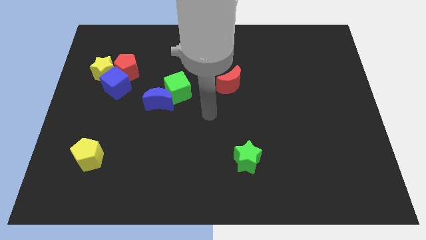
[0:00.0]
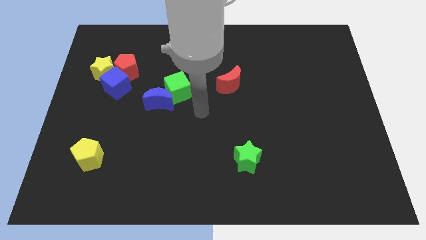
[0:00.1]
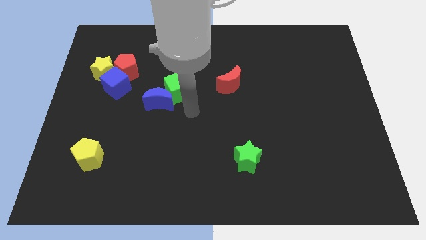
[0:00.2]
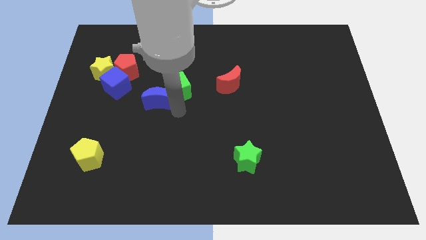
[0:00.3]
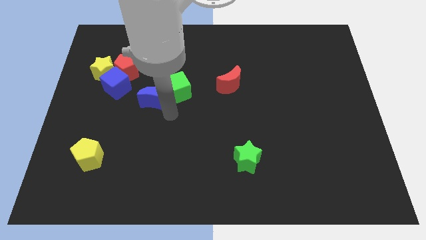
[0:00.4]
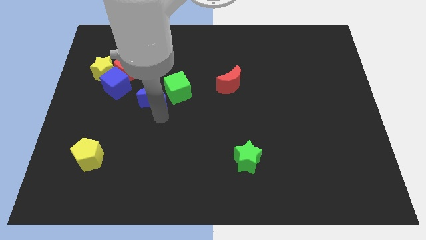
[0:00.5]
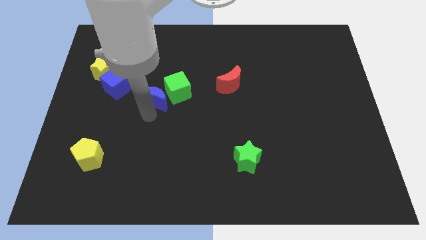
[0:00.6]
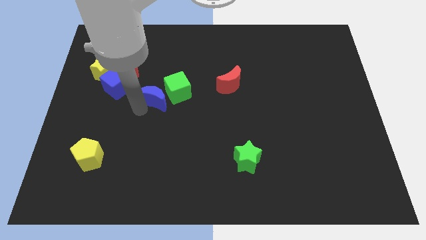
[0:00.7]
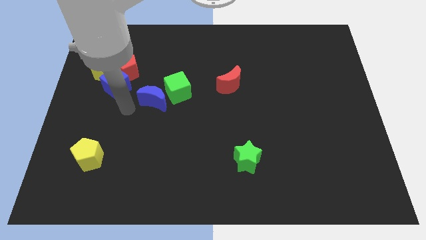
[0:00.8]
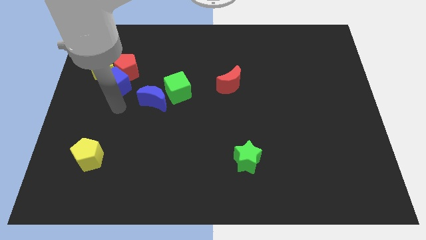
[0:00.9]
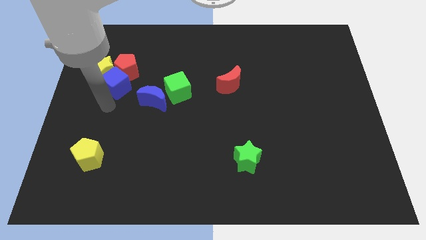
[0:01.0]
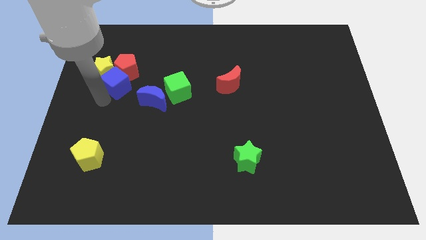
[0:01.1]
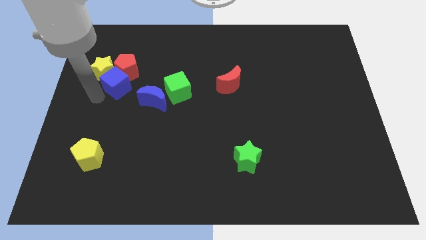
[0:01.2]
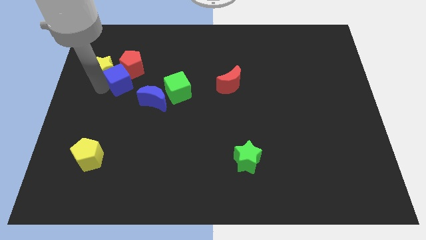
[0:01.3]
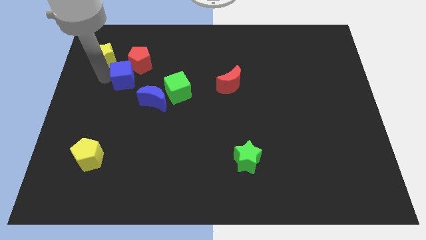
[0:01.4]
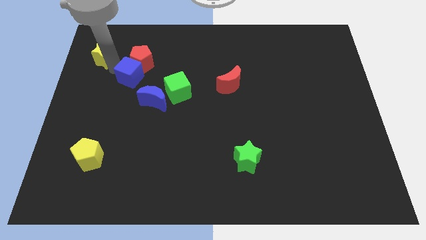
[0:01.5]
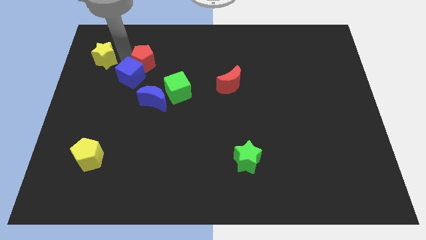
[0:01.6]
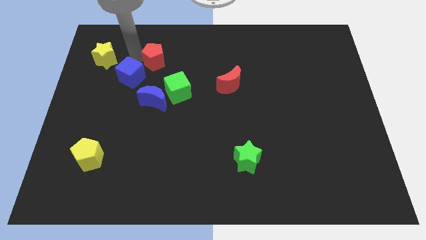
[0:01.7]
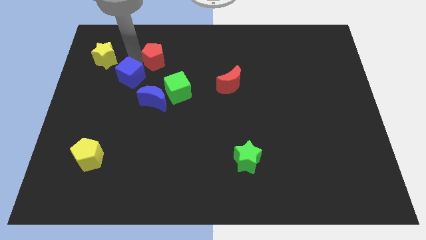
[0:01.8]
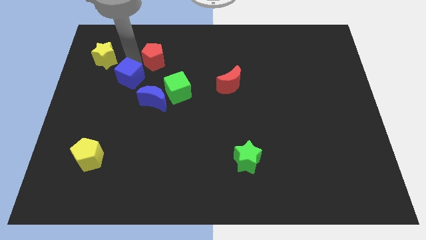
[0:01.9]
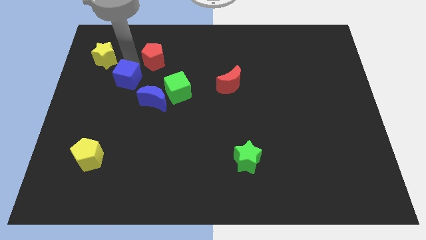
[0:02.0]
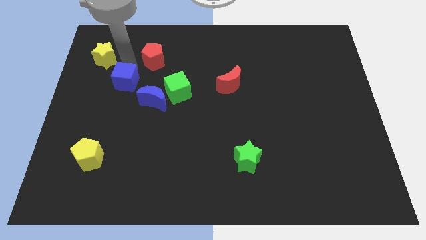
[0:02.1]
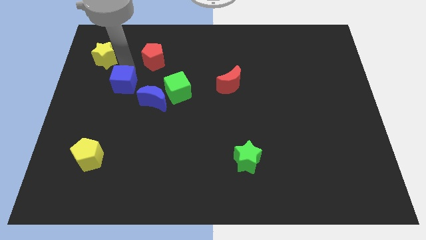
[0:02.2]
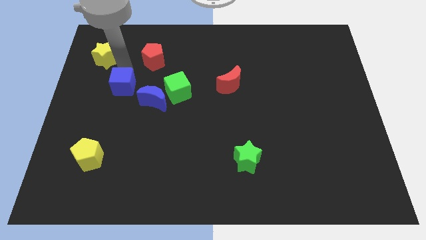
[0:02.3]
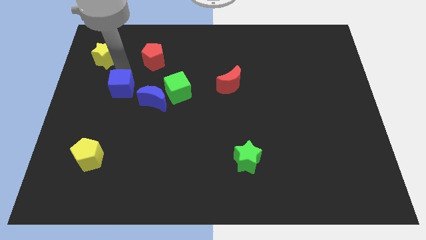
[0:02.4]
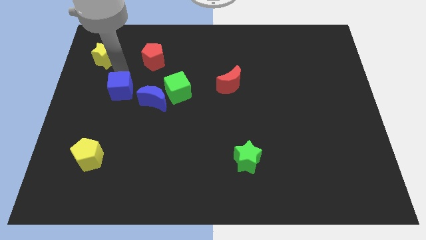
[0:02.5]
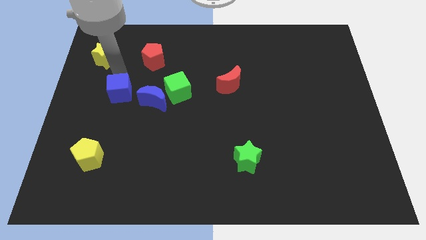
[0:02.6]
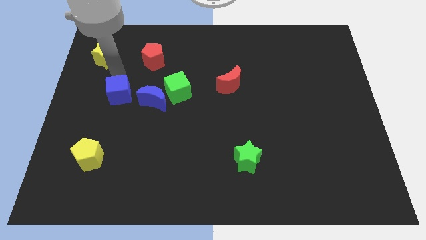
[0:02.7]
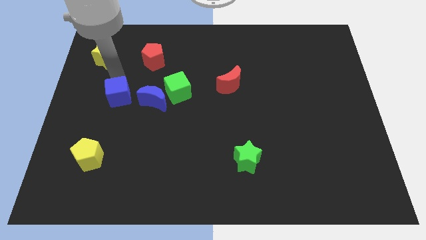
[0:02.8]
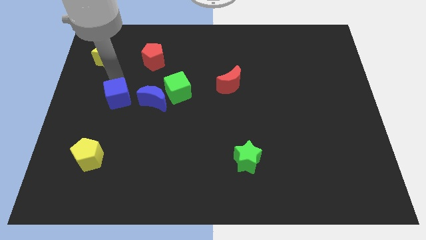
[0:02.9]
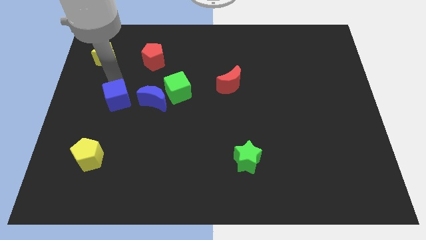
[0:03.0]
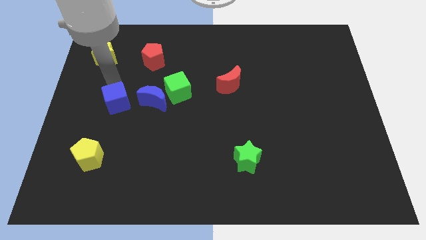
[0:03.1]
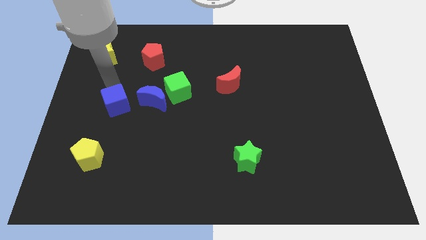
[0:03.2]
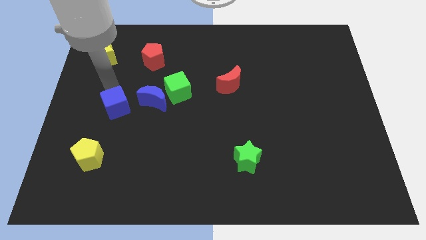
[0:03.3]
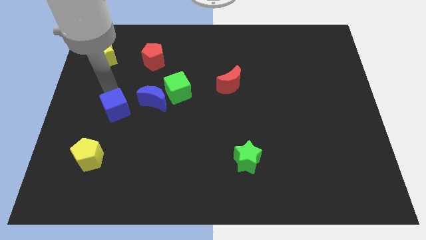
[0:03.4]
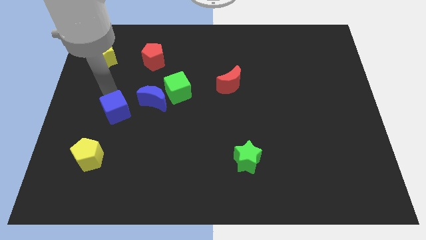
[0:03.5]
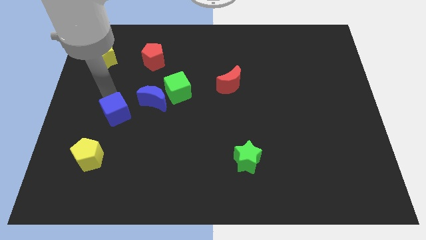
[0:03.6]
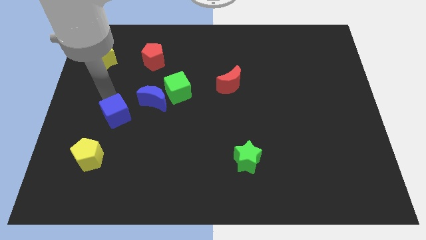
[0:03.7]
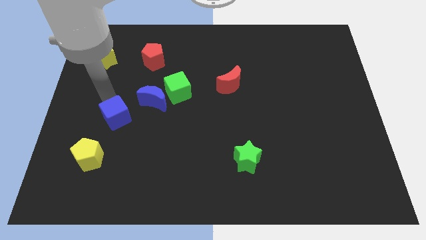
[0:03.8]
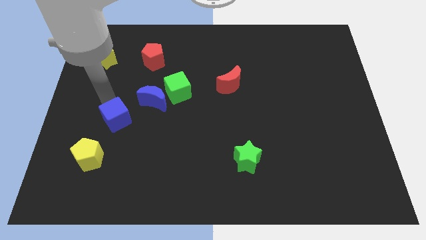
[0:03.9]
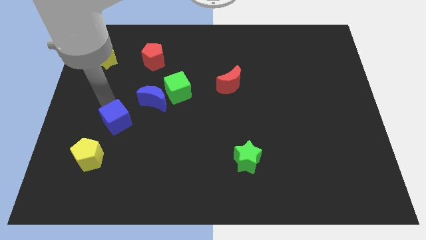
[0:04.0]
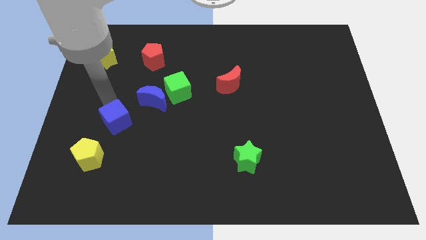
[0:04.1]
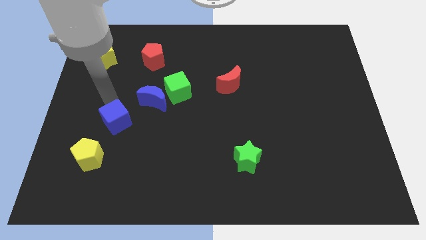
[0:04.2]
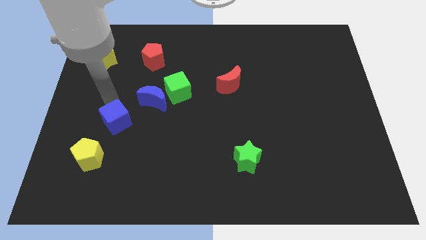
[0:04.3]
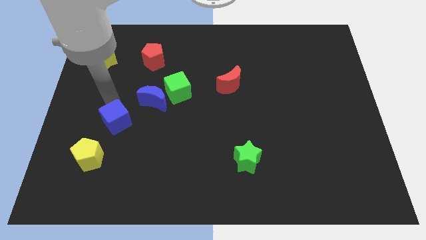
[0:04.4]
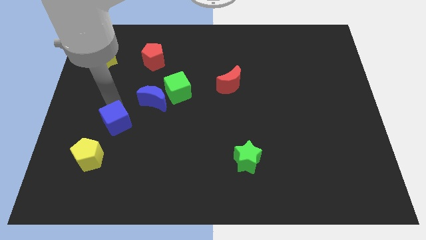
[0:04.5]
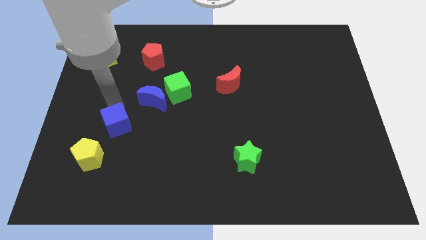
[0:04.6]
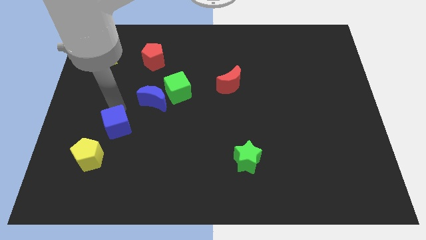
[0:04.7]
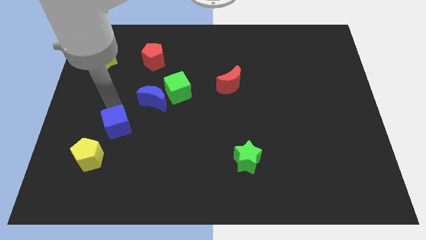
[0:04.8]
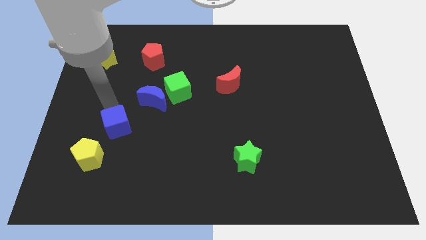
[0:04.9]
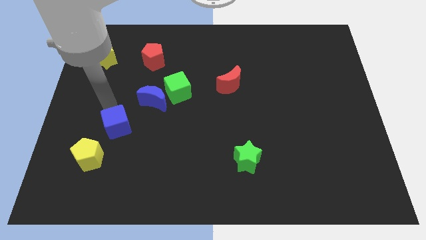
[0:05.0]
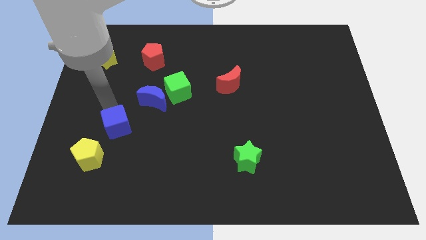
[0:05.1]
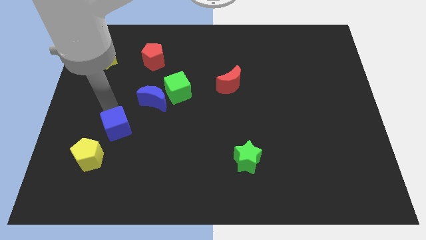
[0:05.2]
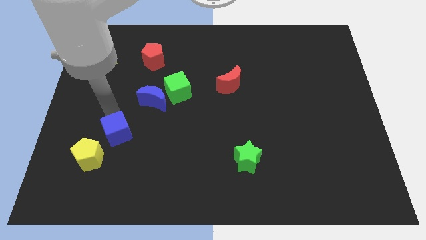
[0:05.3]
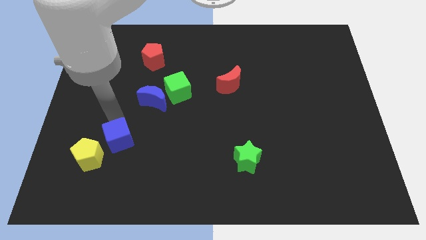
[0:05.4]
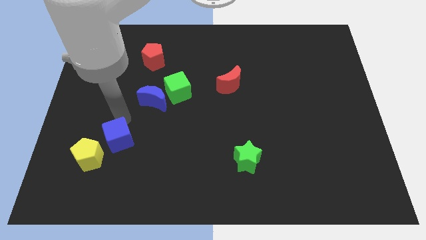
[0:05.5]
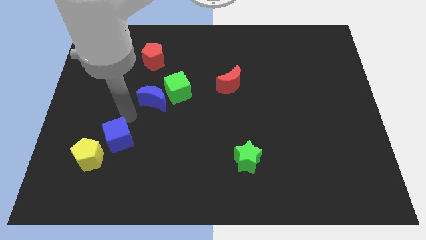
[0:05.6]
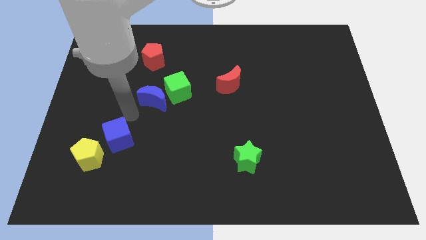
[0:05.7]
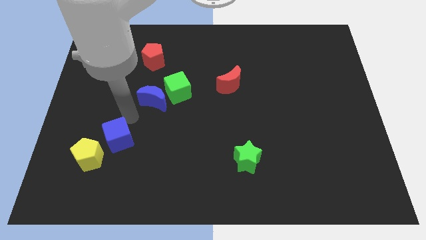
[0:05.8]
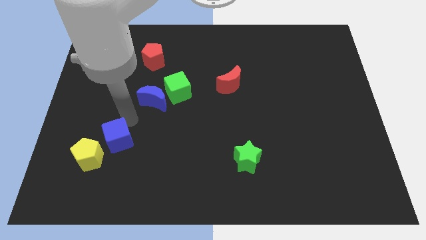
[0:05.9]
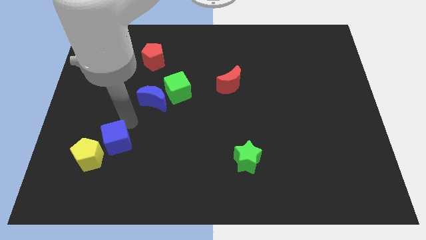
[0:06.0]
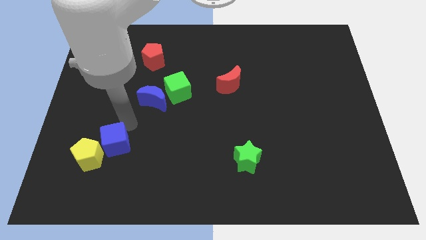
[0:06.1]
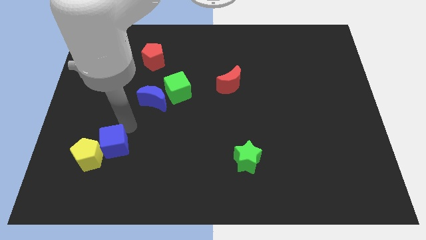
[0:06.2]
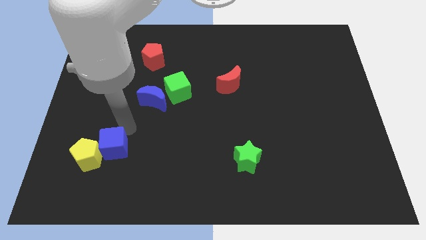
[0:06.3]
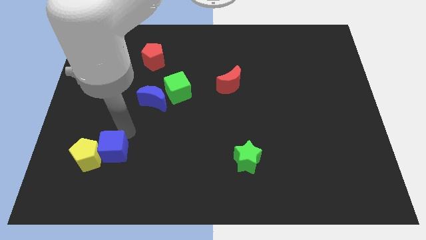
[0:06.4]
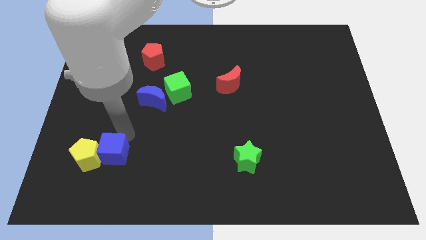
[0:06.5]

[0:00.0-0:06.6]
slide the blue cube diagonally down and to the right of the yellow pentagon

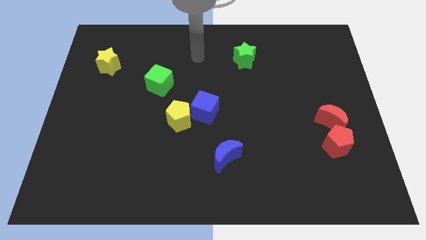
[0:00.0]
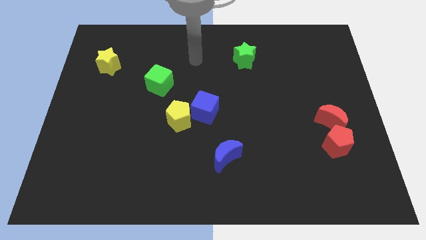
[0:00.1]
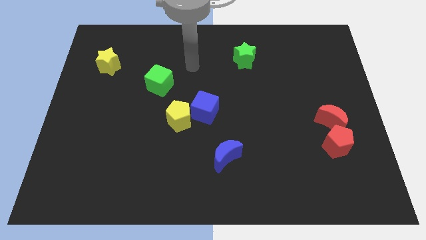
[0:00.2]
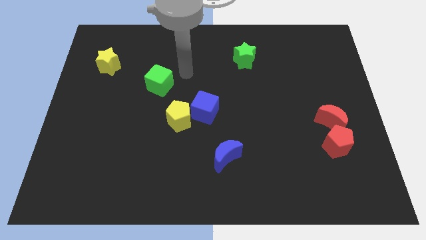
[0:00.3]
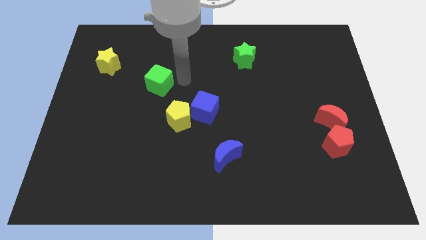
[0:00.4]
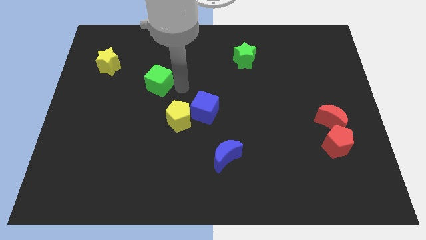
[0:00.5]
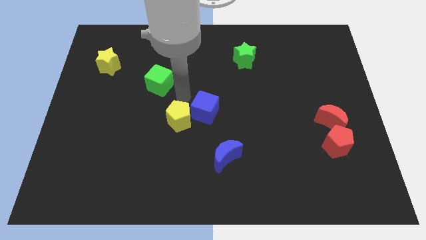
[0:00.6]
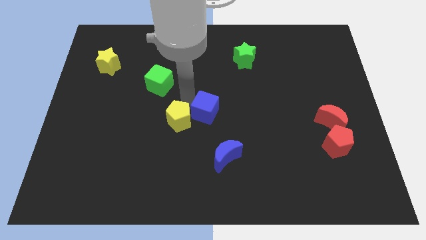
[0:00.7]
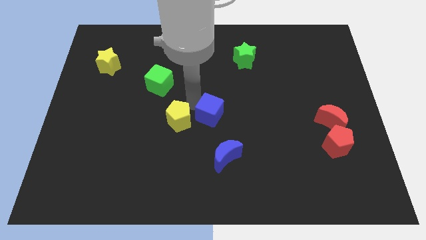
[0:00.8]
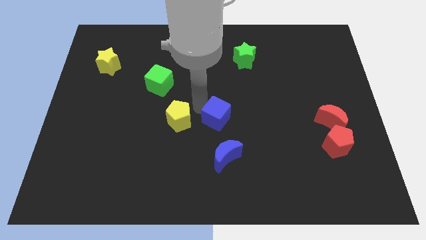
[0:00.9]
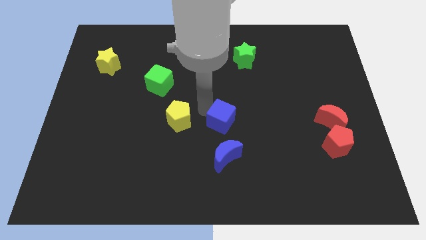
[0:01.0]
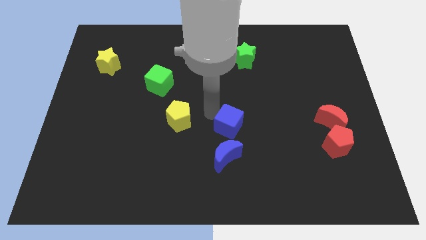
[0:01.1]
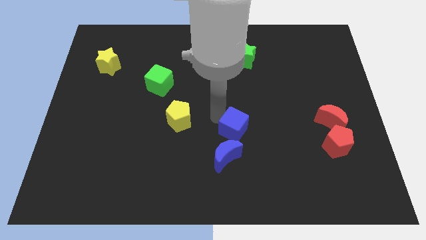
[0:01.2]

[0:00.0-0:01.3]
put the blue cube to the top right of the blue moon

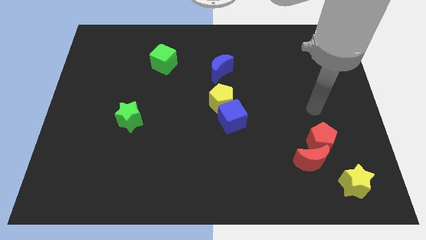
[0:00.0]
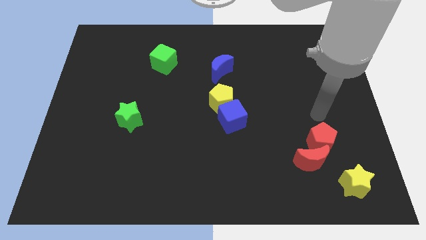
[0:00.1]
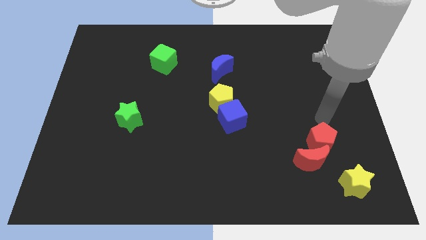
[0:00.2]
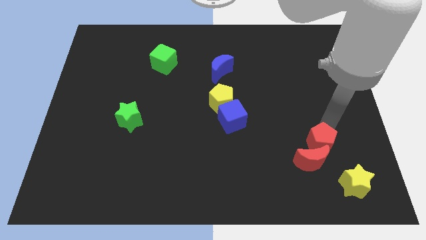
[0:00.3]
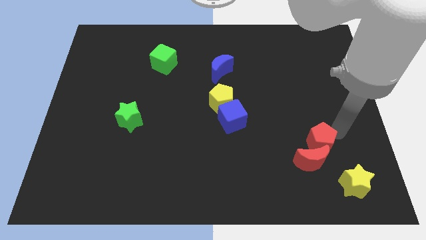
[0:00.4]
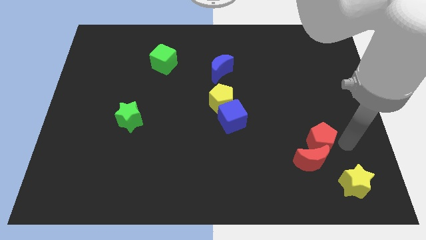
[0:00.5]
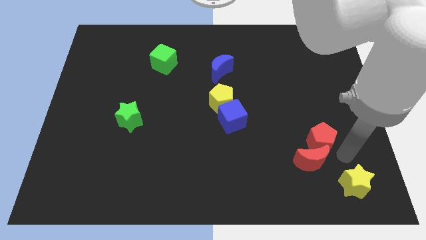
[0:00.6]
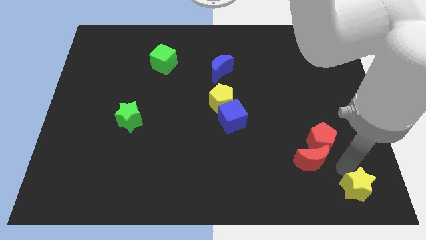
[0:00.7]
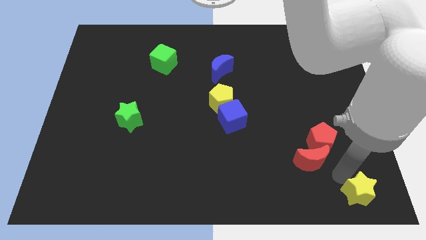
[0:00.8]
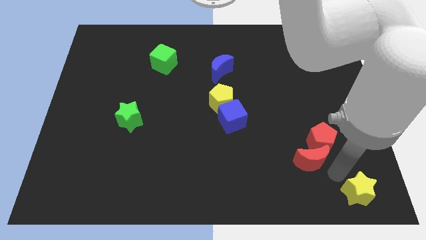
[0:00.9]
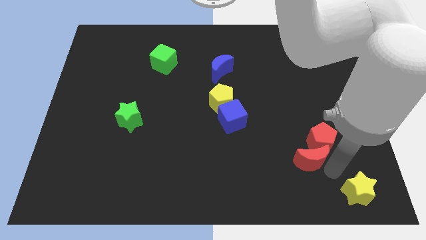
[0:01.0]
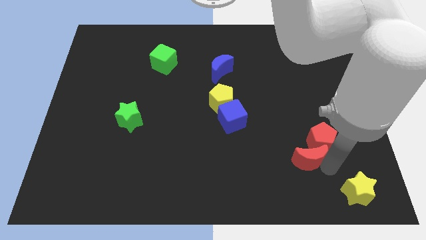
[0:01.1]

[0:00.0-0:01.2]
put the red moon to the left side of the red pentagon
